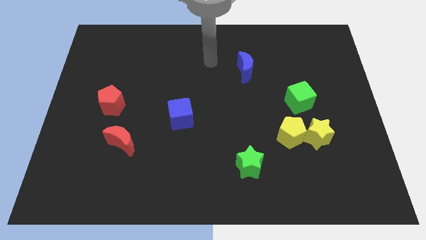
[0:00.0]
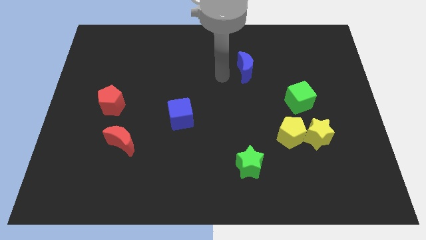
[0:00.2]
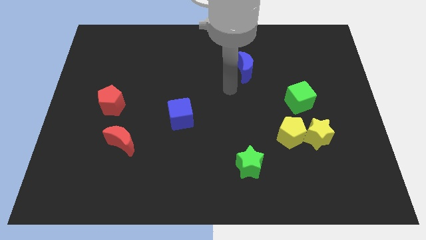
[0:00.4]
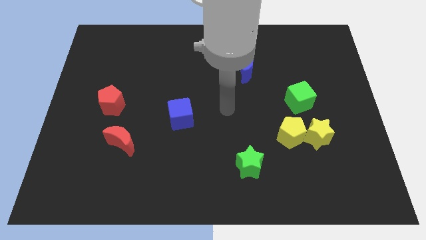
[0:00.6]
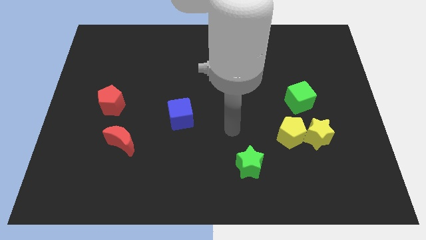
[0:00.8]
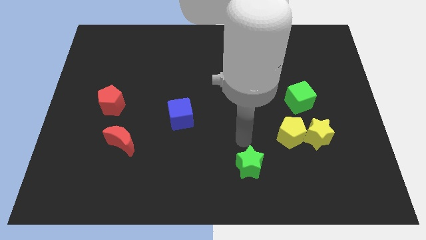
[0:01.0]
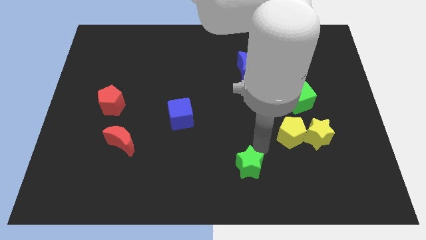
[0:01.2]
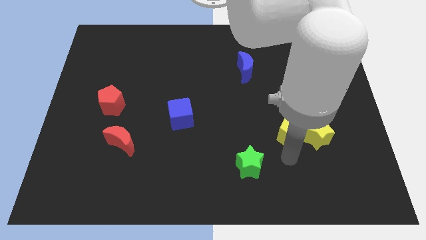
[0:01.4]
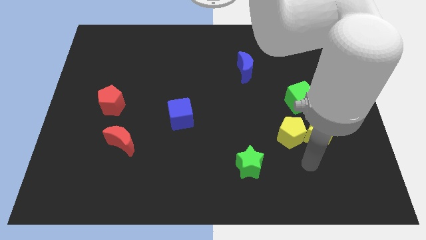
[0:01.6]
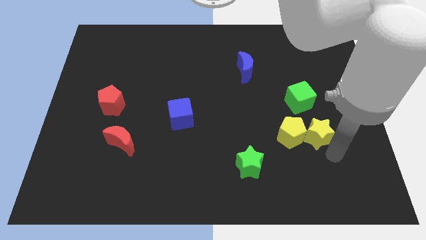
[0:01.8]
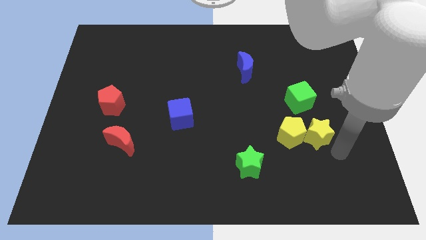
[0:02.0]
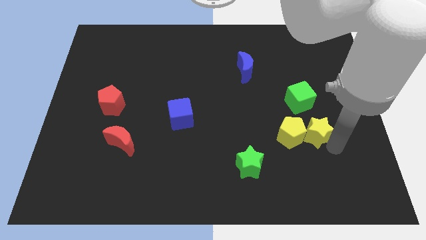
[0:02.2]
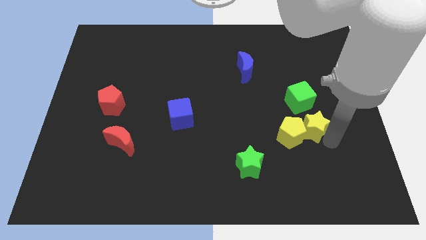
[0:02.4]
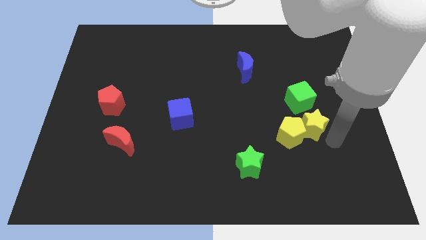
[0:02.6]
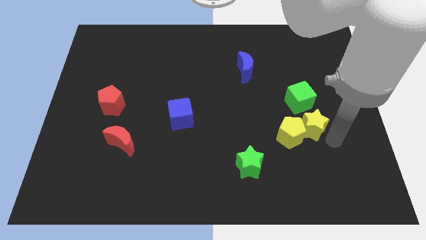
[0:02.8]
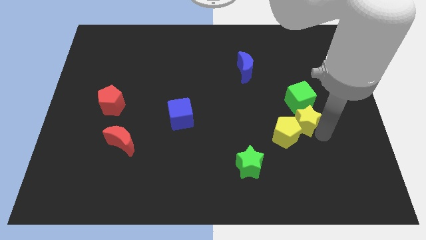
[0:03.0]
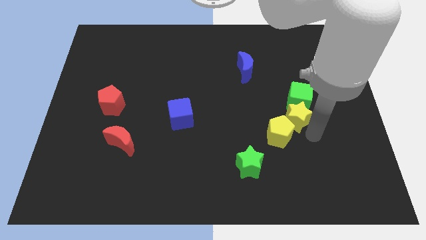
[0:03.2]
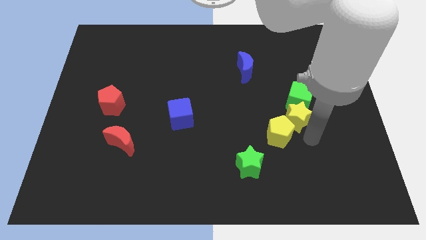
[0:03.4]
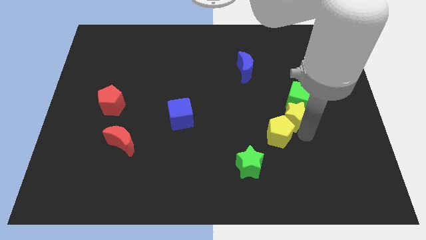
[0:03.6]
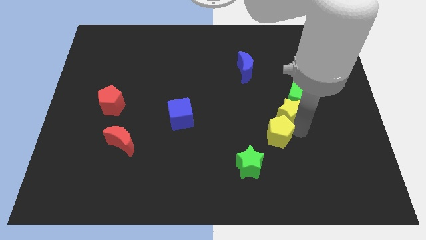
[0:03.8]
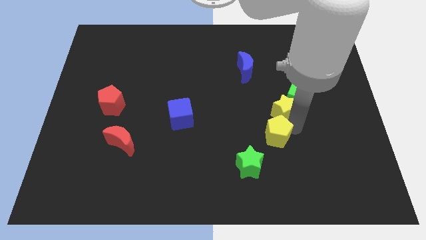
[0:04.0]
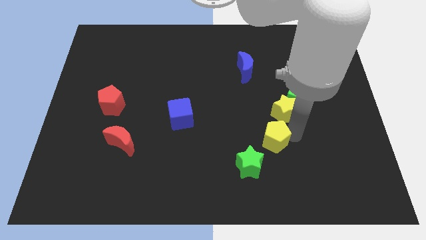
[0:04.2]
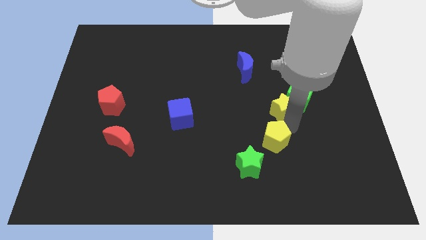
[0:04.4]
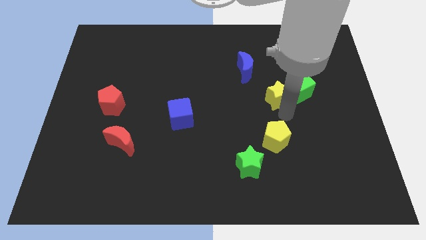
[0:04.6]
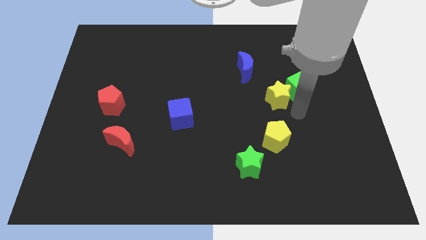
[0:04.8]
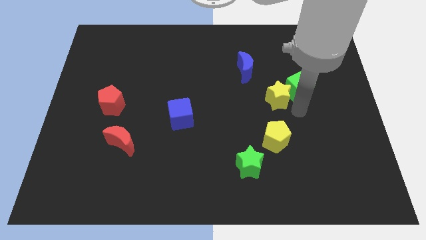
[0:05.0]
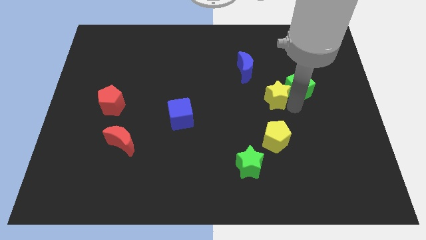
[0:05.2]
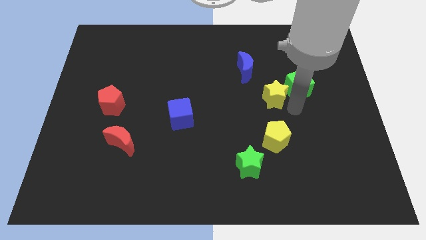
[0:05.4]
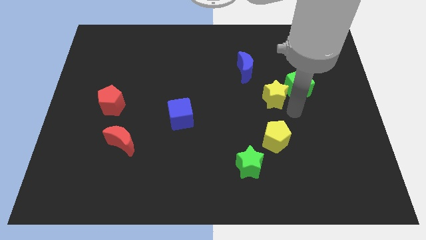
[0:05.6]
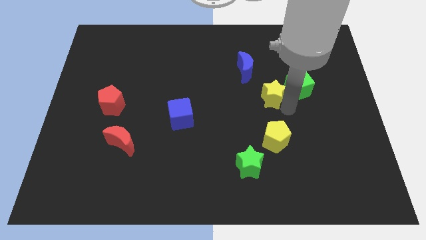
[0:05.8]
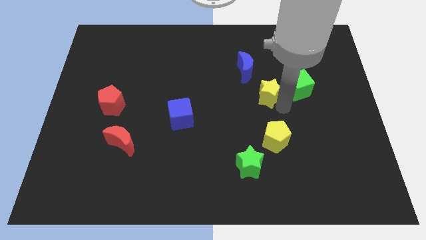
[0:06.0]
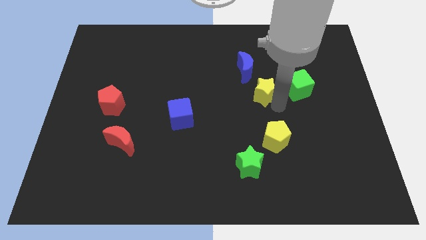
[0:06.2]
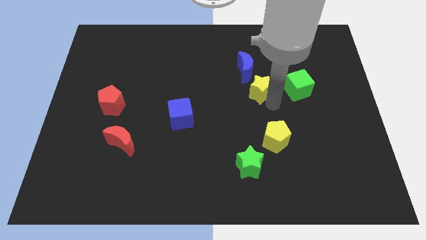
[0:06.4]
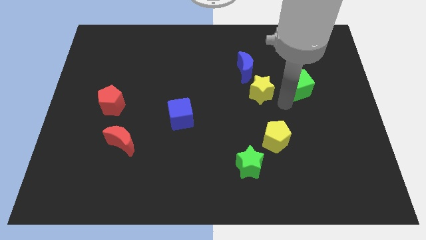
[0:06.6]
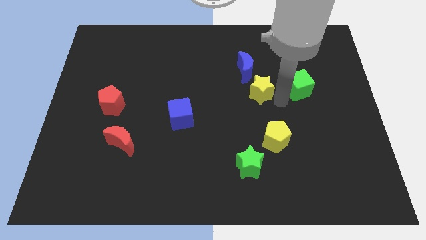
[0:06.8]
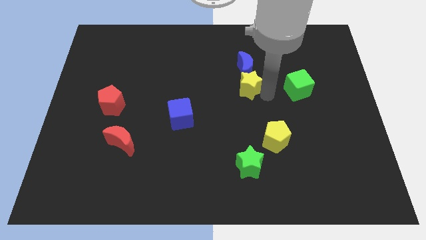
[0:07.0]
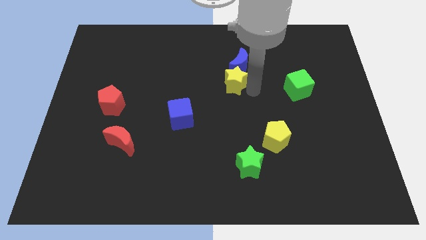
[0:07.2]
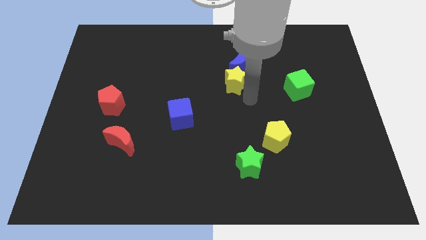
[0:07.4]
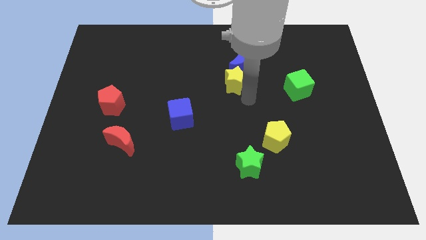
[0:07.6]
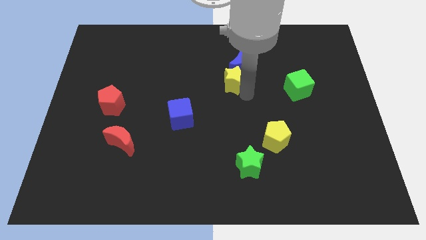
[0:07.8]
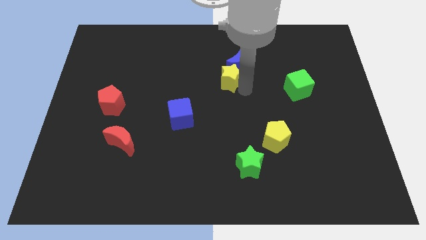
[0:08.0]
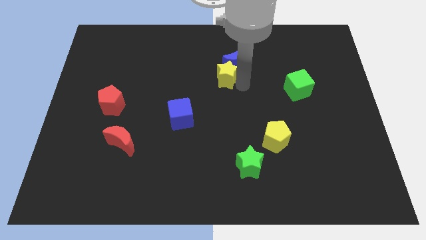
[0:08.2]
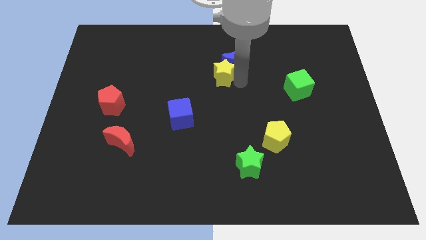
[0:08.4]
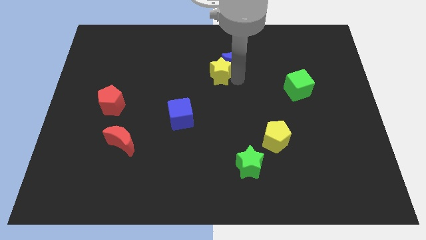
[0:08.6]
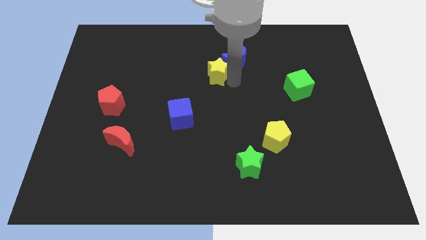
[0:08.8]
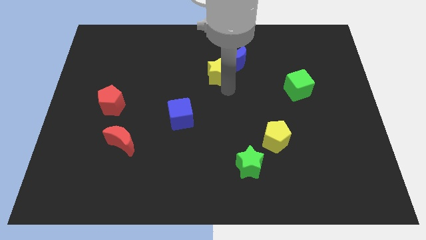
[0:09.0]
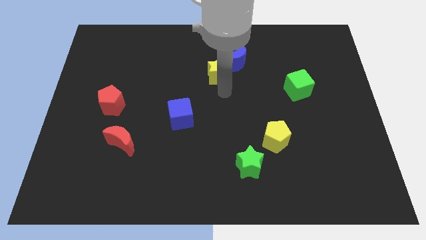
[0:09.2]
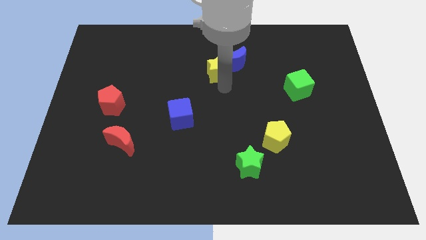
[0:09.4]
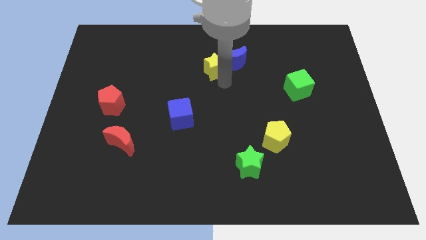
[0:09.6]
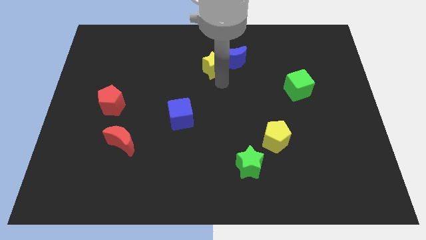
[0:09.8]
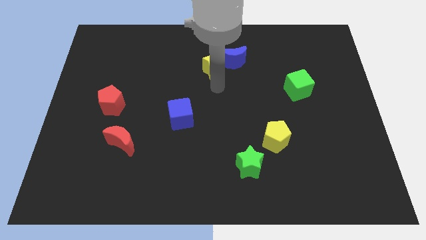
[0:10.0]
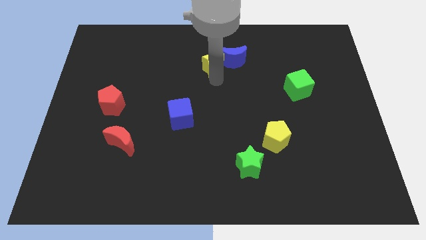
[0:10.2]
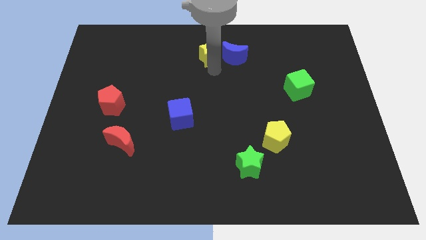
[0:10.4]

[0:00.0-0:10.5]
slide the yellow star to the towards your base

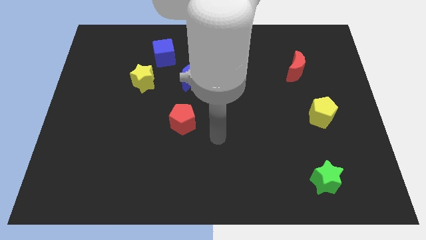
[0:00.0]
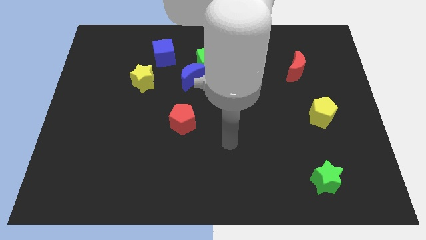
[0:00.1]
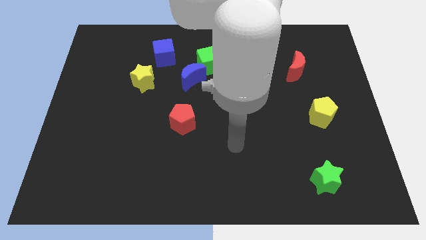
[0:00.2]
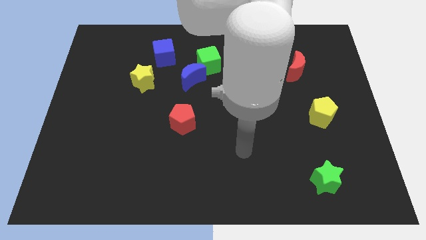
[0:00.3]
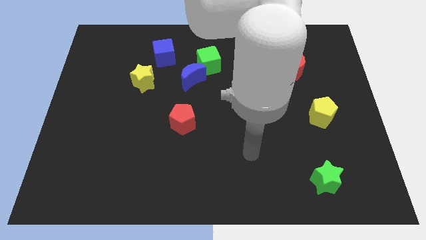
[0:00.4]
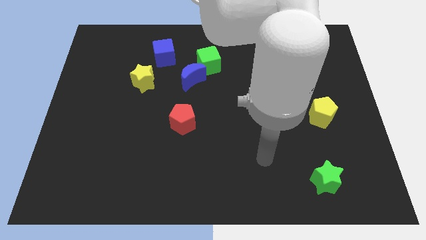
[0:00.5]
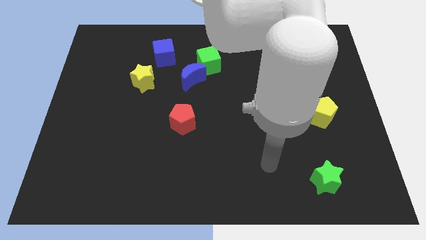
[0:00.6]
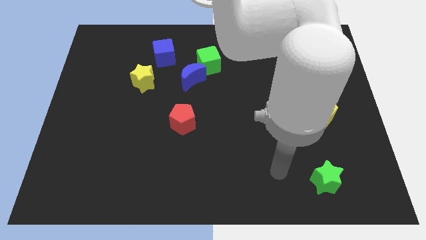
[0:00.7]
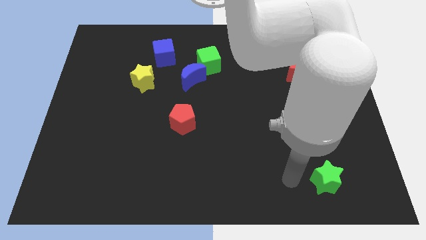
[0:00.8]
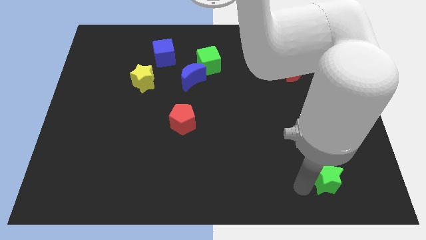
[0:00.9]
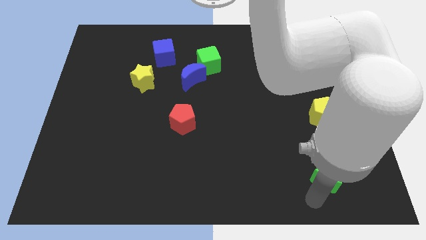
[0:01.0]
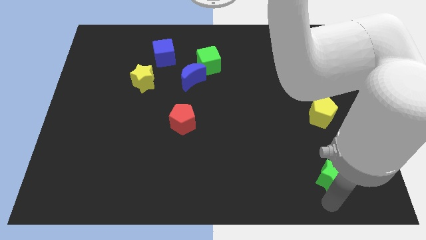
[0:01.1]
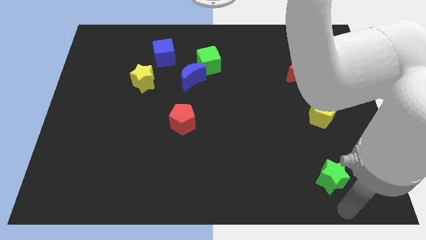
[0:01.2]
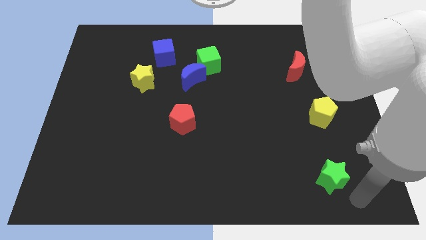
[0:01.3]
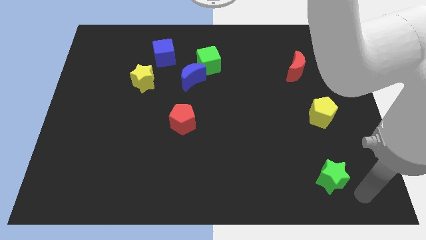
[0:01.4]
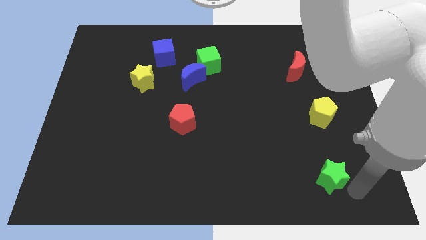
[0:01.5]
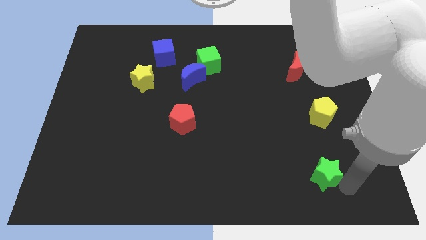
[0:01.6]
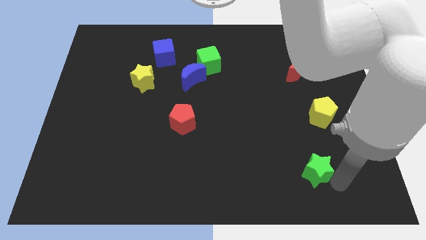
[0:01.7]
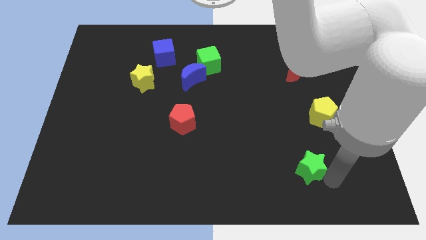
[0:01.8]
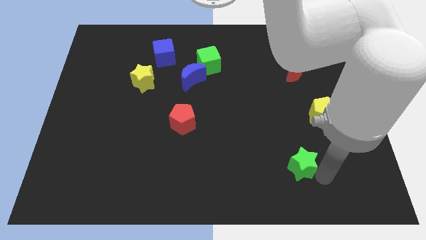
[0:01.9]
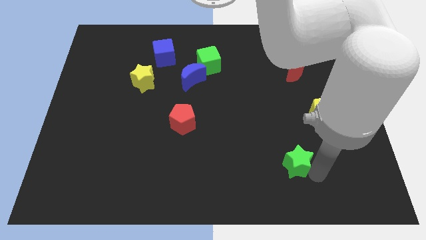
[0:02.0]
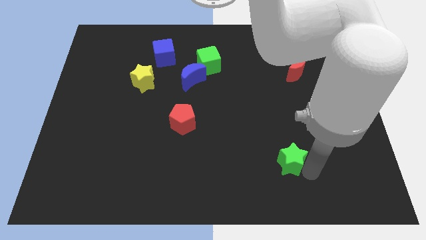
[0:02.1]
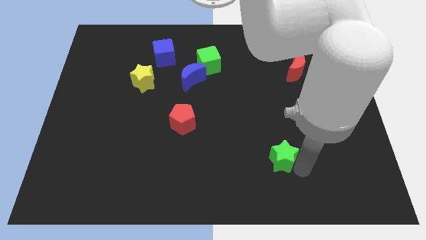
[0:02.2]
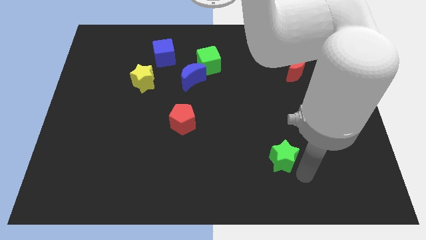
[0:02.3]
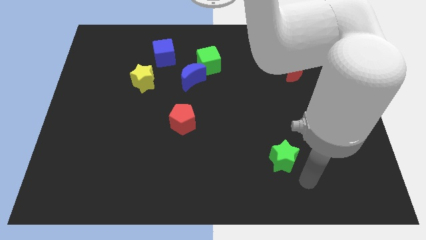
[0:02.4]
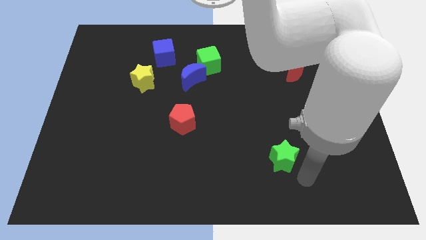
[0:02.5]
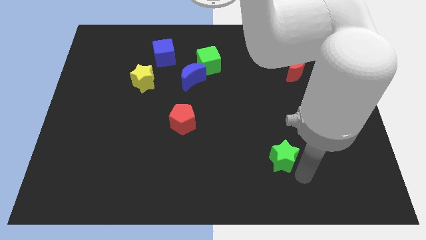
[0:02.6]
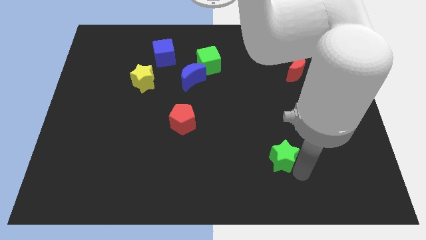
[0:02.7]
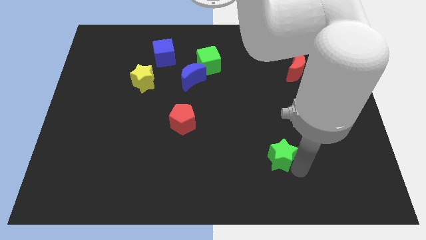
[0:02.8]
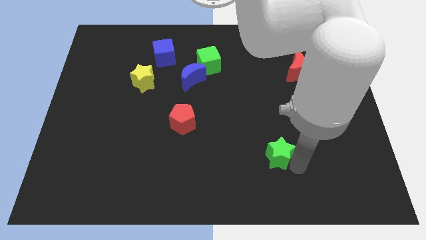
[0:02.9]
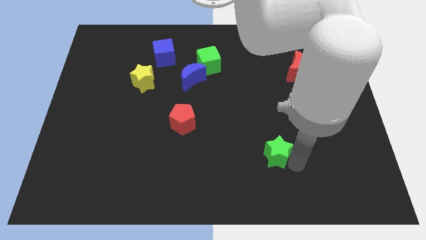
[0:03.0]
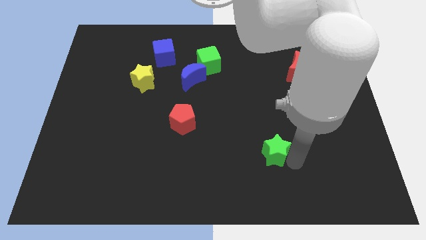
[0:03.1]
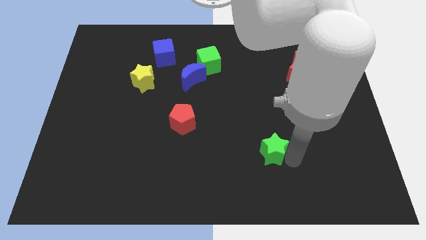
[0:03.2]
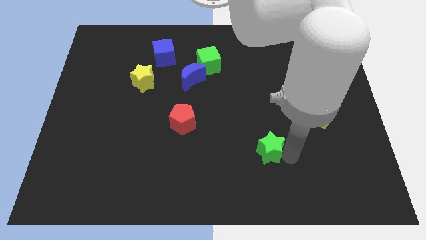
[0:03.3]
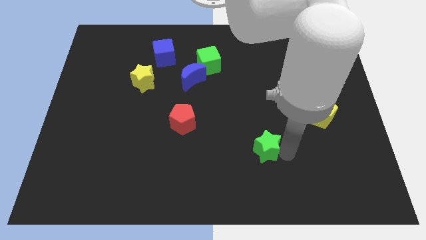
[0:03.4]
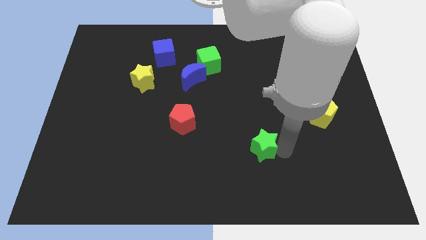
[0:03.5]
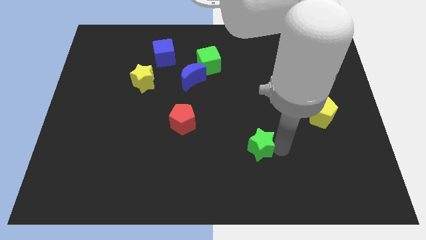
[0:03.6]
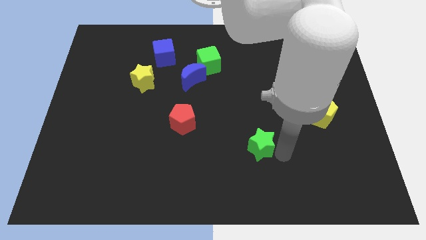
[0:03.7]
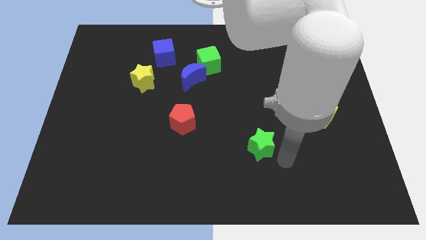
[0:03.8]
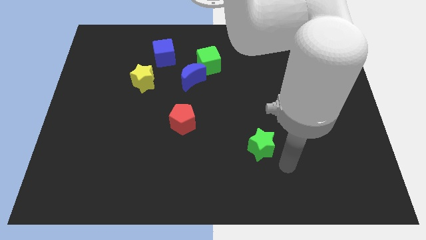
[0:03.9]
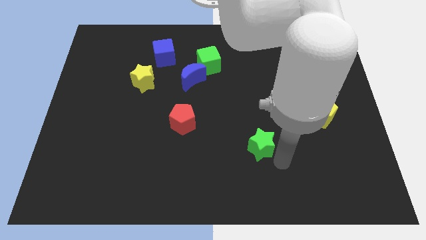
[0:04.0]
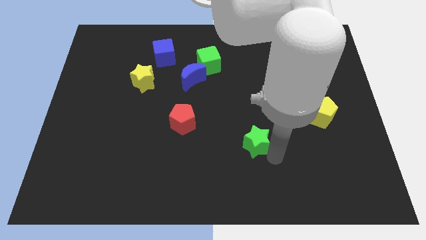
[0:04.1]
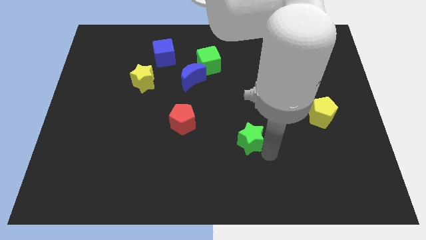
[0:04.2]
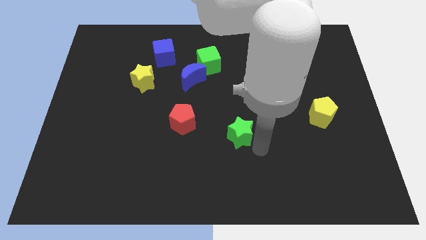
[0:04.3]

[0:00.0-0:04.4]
push the green star to the middle of the board
